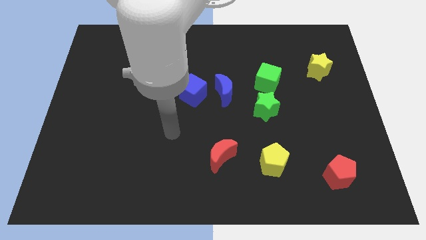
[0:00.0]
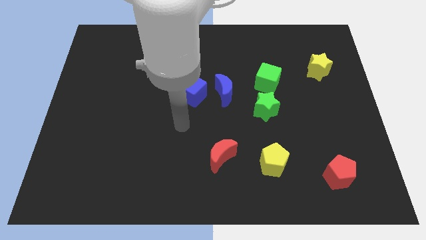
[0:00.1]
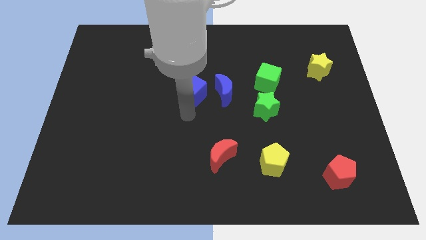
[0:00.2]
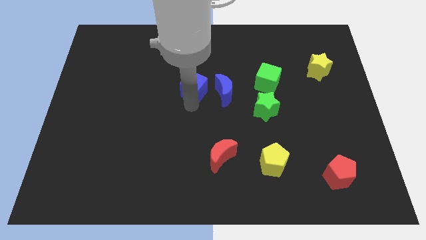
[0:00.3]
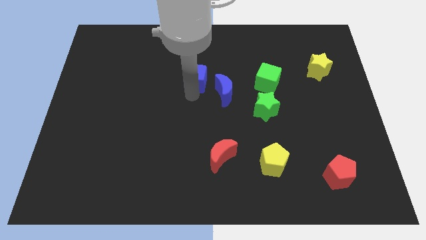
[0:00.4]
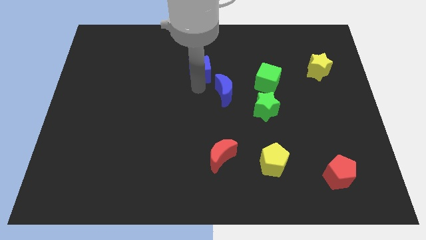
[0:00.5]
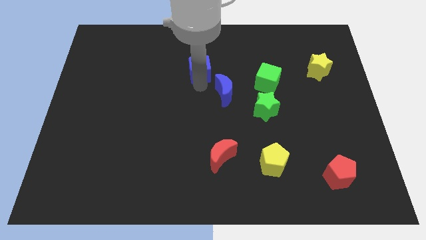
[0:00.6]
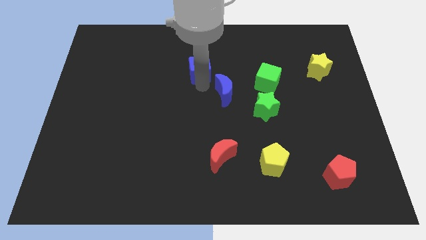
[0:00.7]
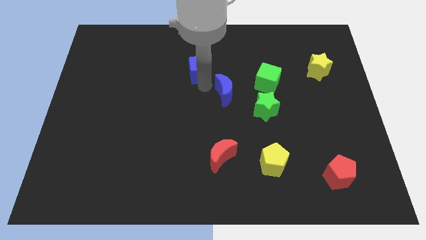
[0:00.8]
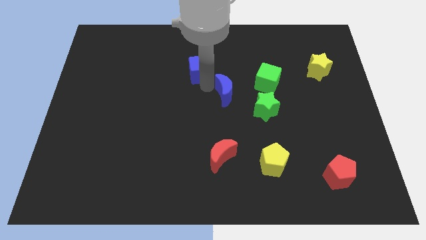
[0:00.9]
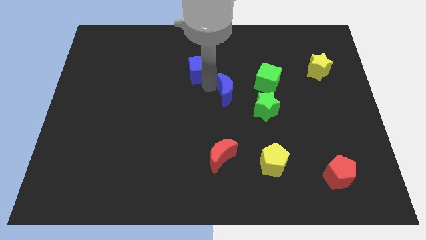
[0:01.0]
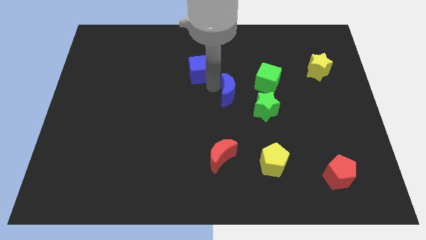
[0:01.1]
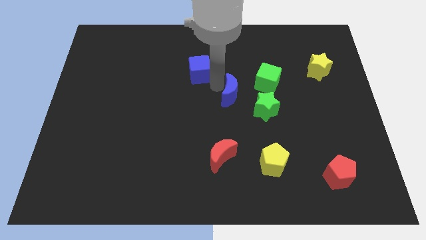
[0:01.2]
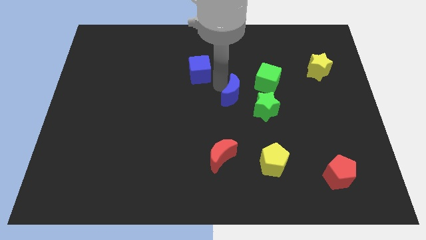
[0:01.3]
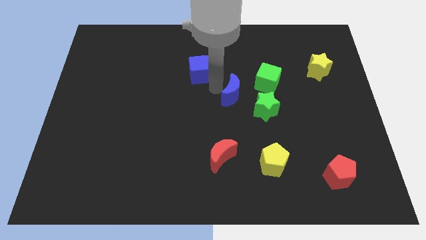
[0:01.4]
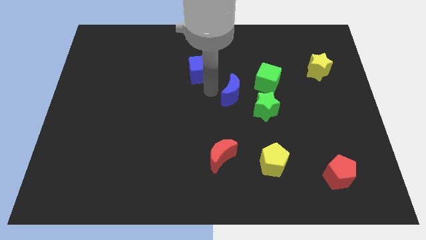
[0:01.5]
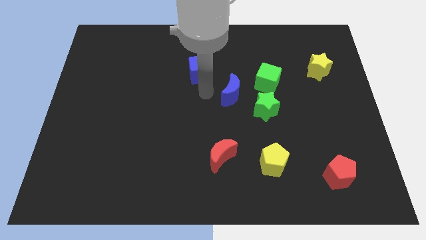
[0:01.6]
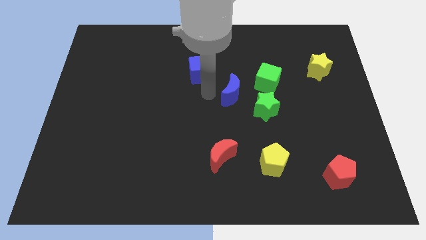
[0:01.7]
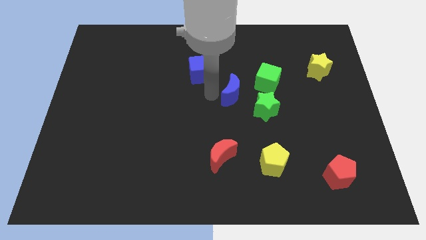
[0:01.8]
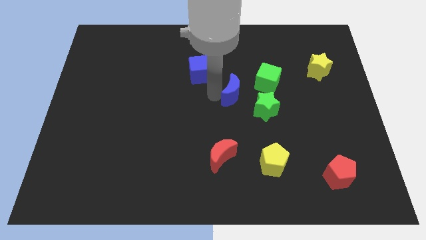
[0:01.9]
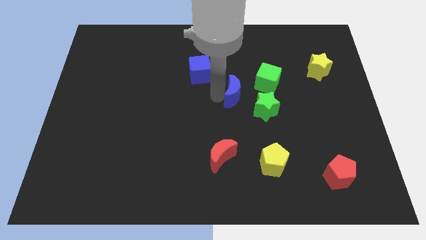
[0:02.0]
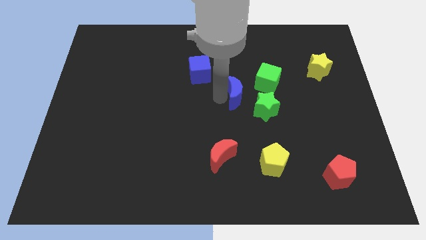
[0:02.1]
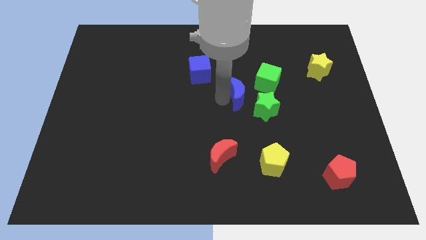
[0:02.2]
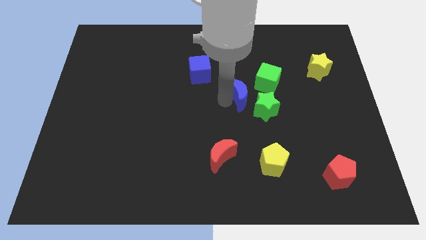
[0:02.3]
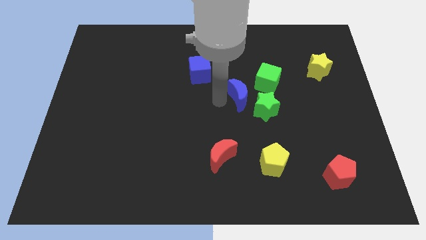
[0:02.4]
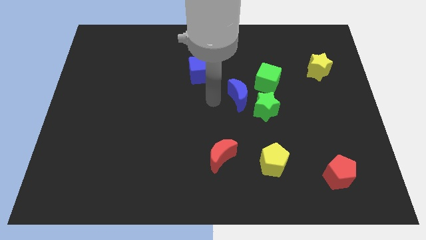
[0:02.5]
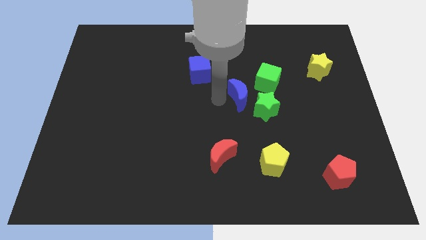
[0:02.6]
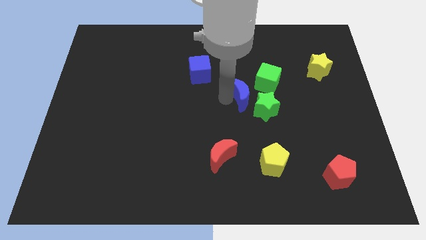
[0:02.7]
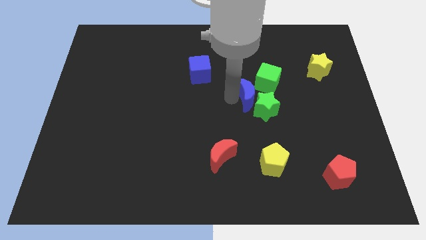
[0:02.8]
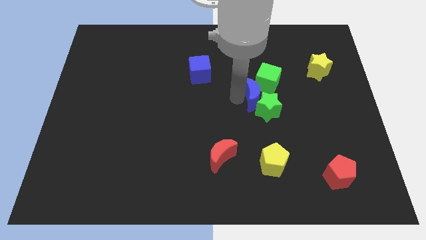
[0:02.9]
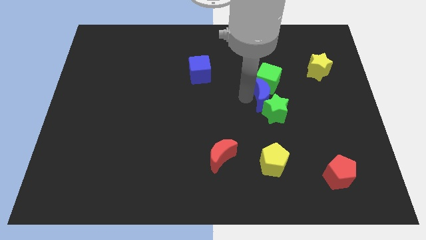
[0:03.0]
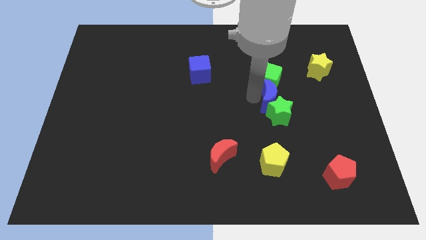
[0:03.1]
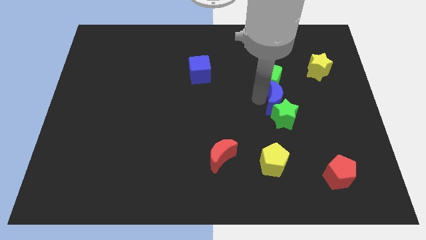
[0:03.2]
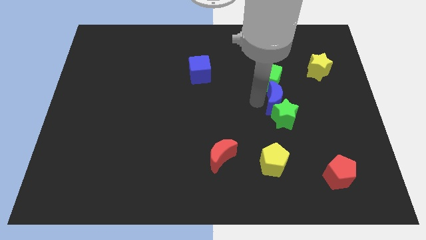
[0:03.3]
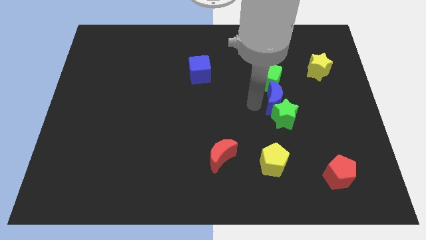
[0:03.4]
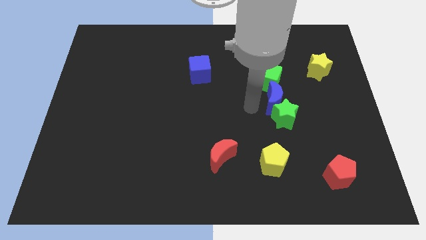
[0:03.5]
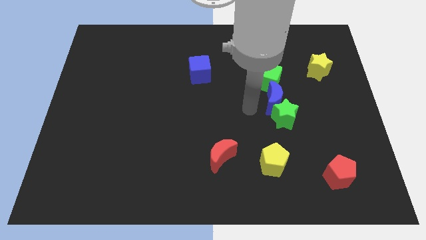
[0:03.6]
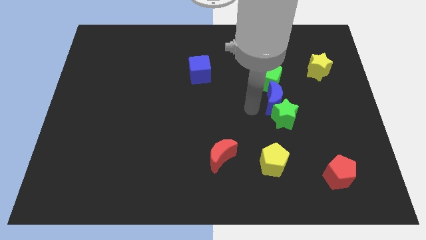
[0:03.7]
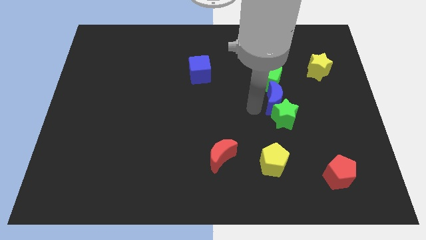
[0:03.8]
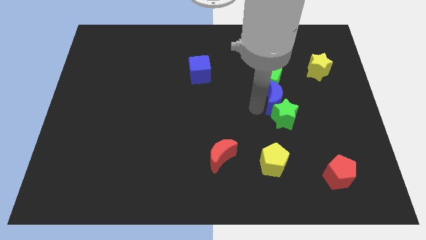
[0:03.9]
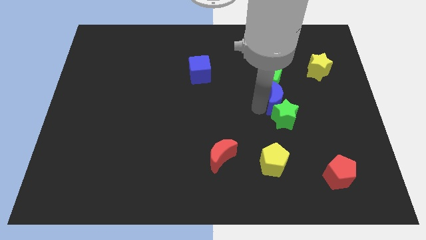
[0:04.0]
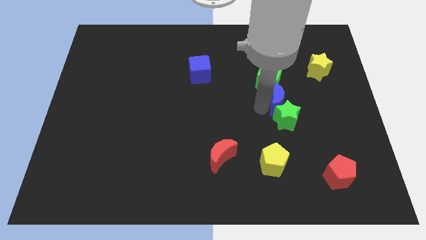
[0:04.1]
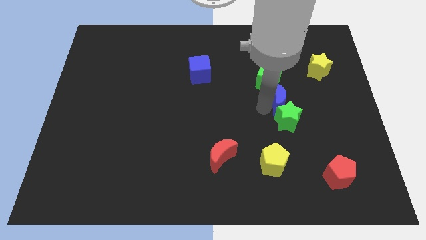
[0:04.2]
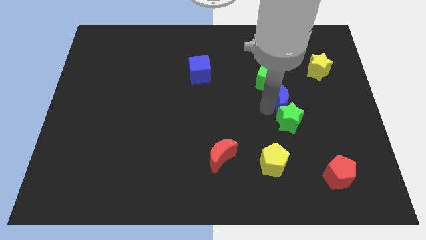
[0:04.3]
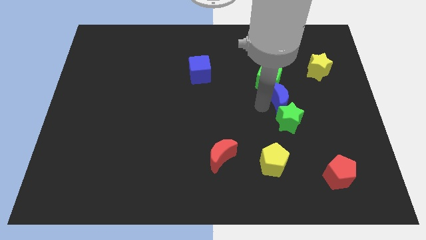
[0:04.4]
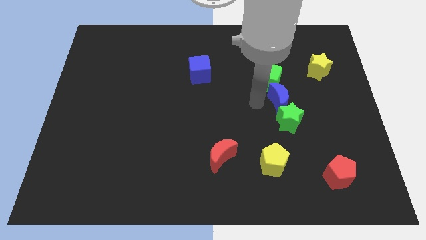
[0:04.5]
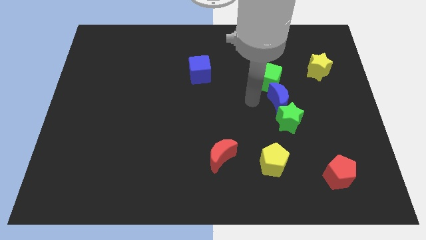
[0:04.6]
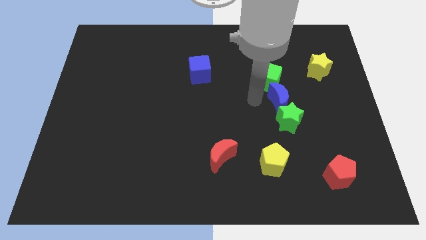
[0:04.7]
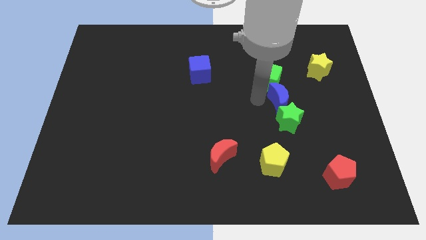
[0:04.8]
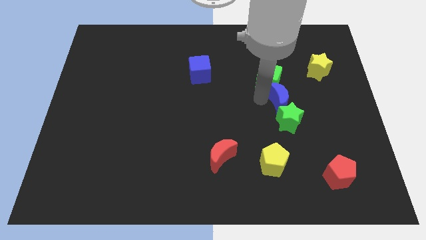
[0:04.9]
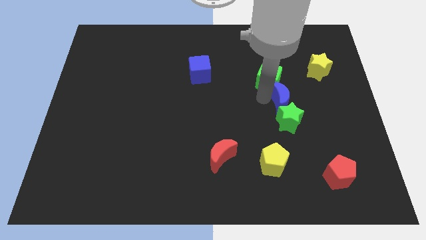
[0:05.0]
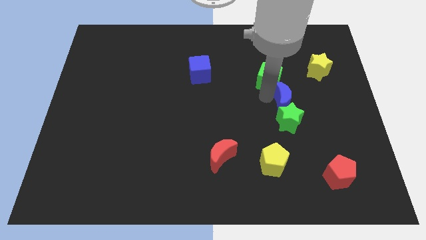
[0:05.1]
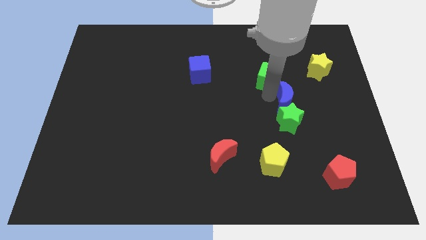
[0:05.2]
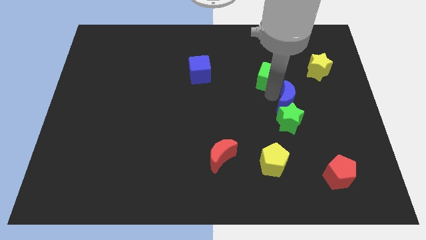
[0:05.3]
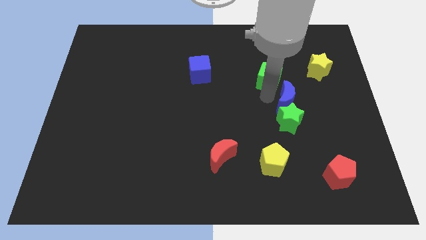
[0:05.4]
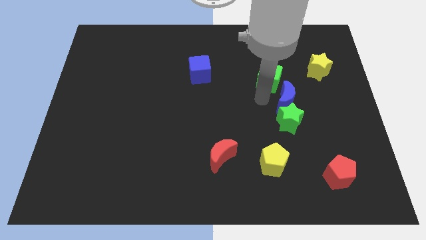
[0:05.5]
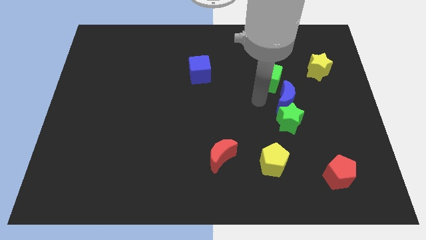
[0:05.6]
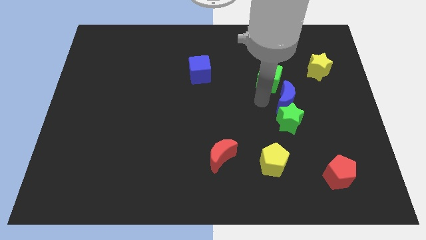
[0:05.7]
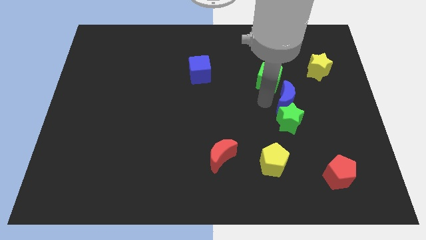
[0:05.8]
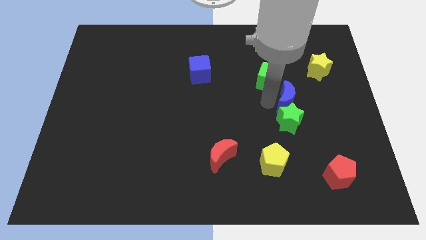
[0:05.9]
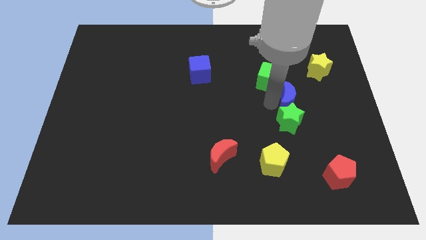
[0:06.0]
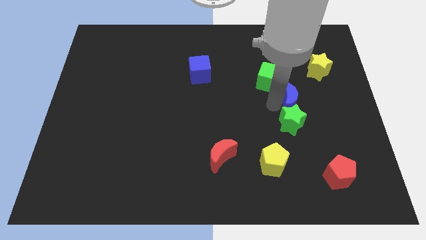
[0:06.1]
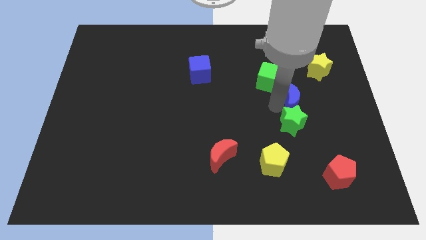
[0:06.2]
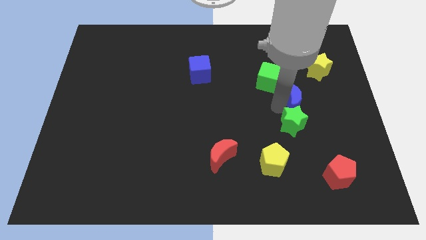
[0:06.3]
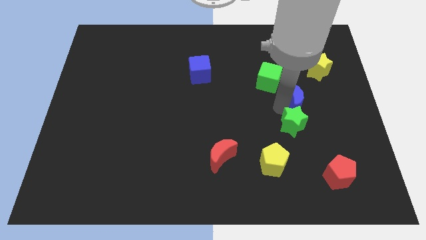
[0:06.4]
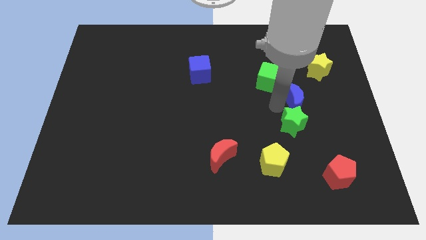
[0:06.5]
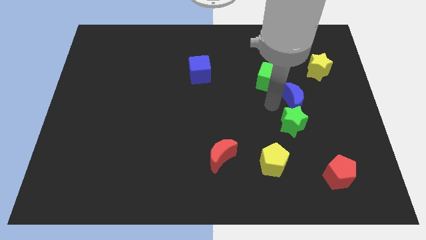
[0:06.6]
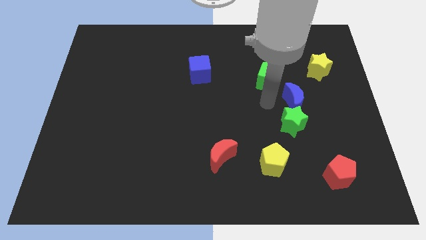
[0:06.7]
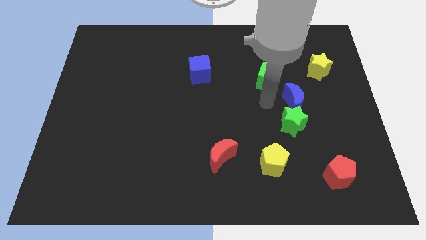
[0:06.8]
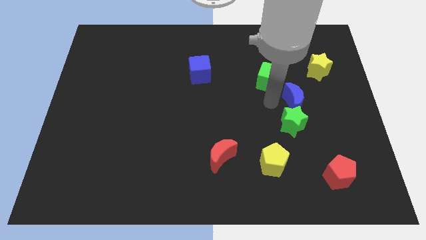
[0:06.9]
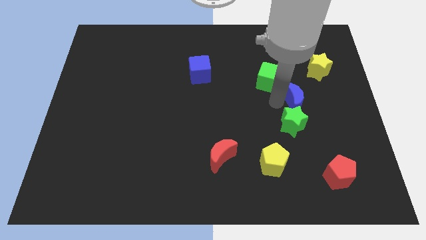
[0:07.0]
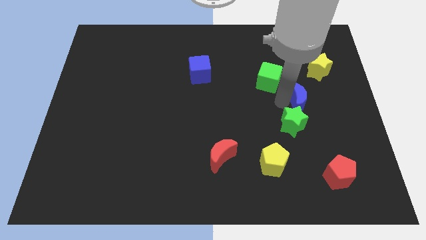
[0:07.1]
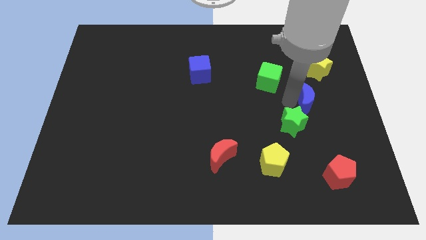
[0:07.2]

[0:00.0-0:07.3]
push the blue moon to the bottom of the yellow star

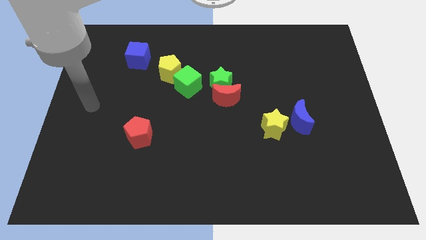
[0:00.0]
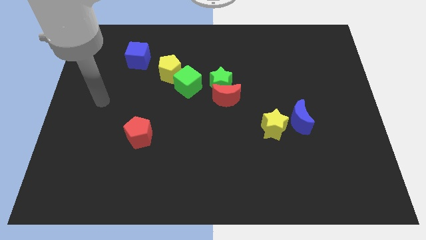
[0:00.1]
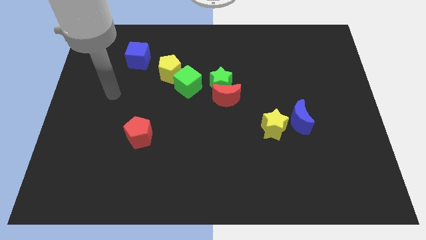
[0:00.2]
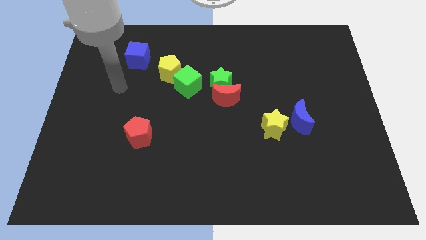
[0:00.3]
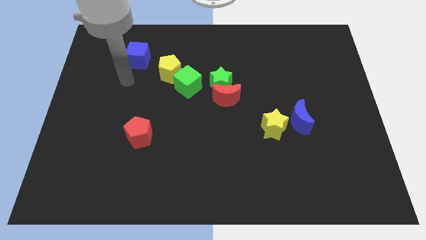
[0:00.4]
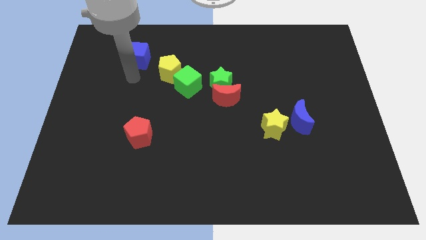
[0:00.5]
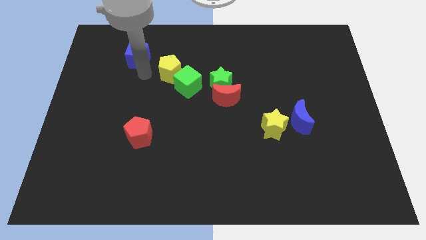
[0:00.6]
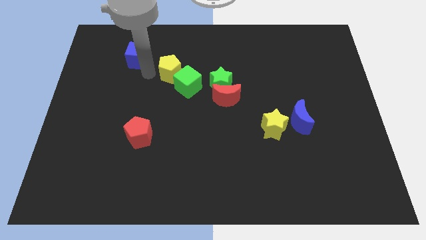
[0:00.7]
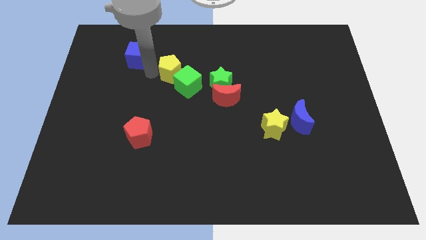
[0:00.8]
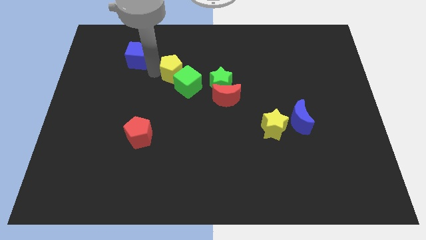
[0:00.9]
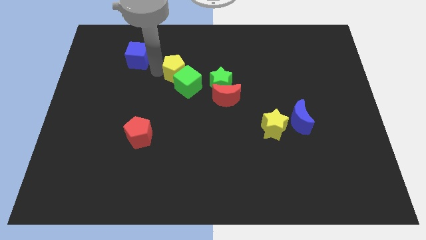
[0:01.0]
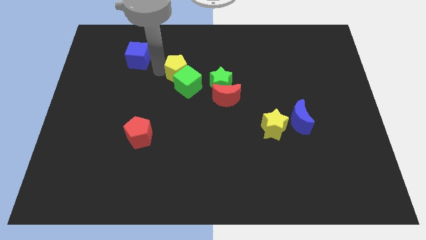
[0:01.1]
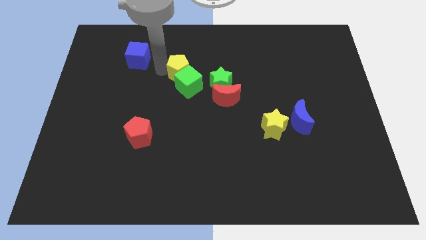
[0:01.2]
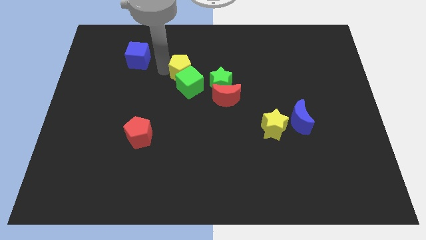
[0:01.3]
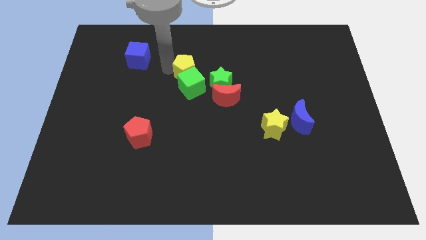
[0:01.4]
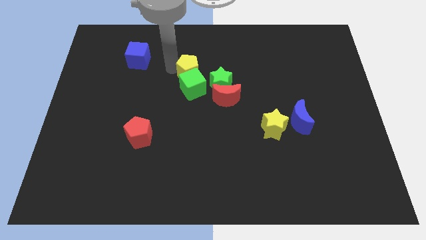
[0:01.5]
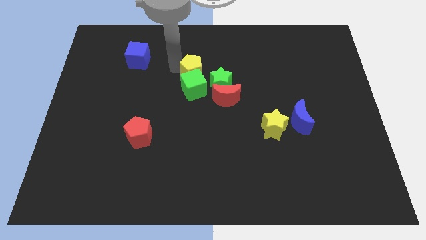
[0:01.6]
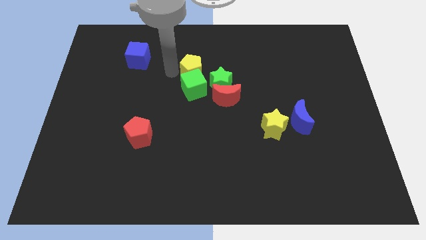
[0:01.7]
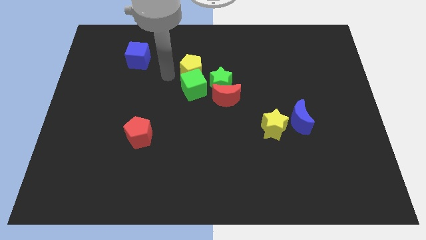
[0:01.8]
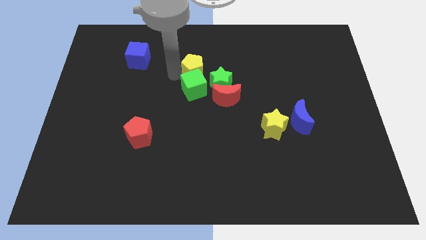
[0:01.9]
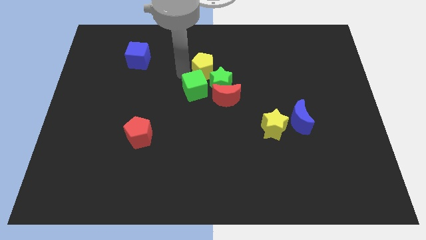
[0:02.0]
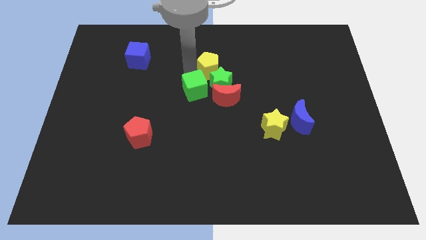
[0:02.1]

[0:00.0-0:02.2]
move the yellow pentagon to the top side of the red moon
